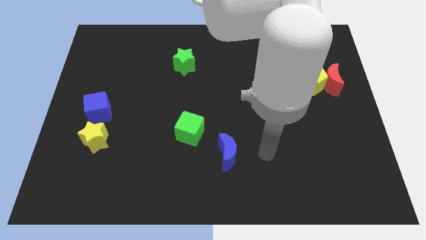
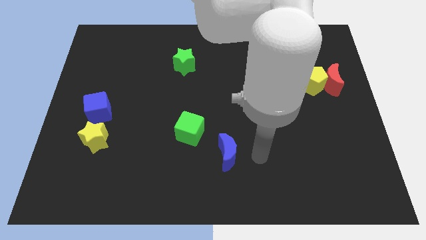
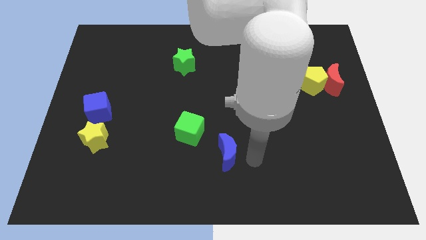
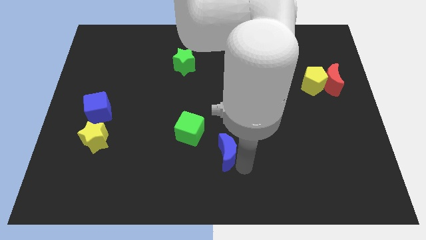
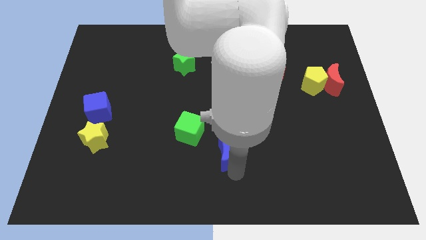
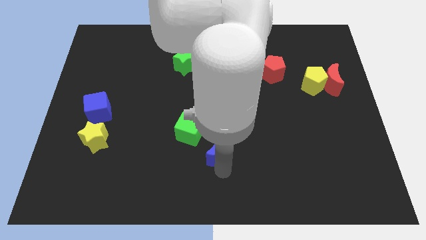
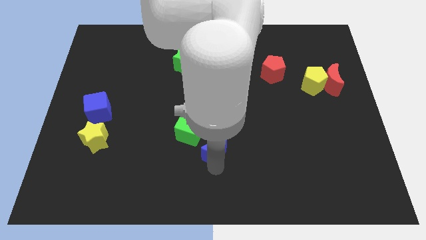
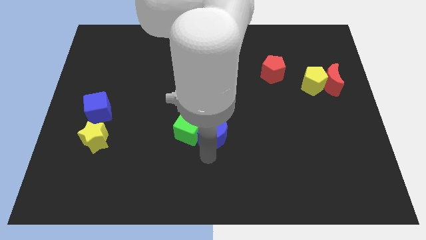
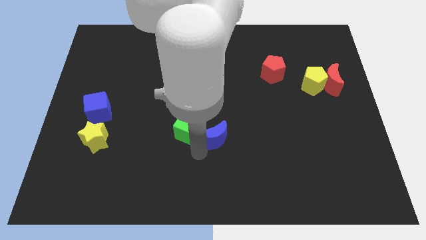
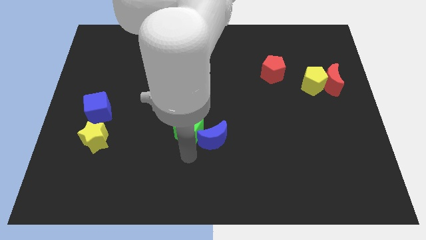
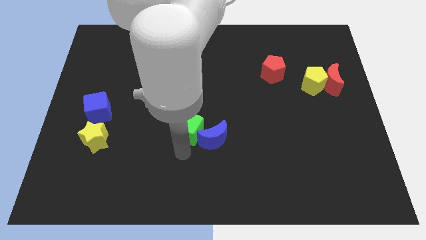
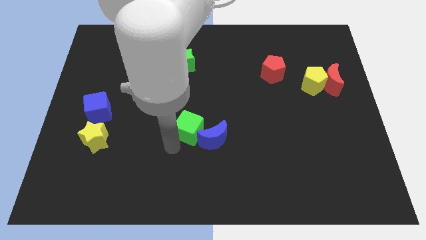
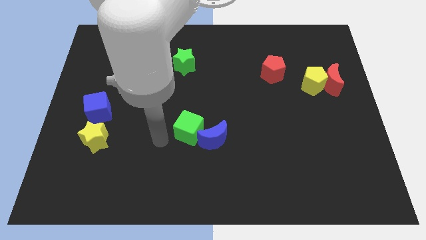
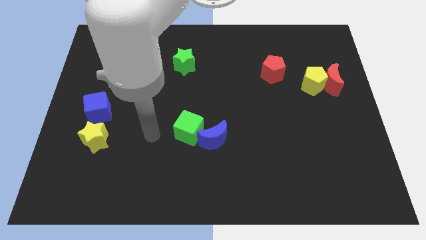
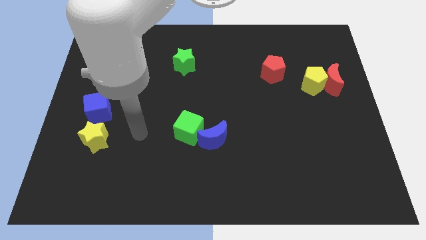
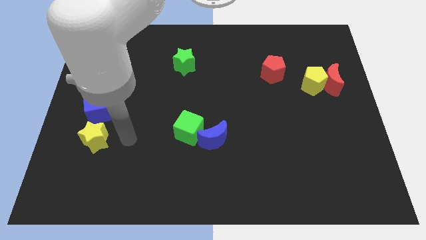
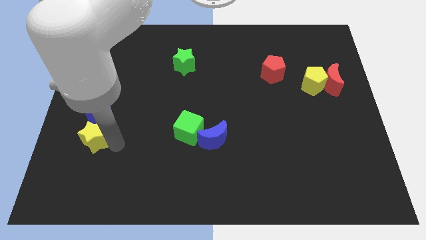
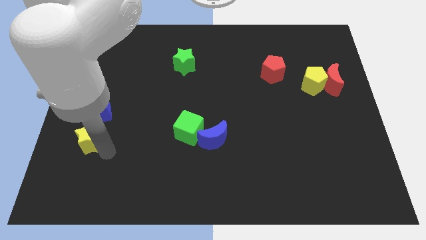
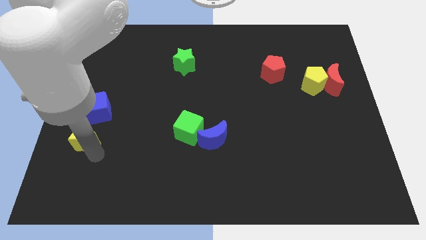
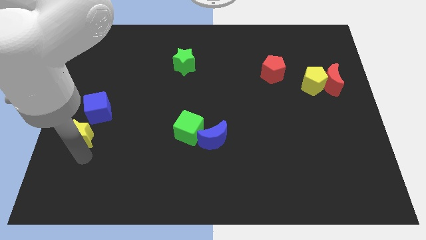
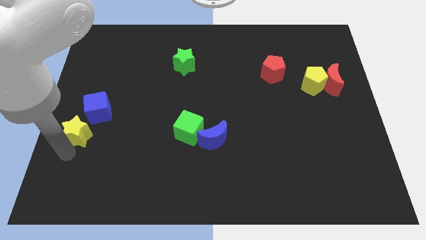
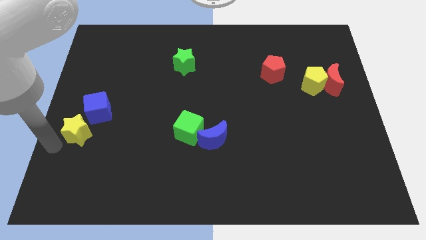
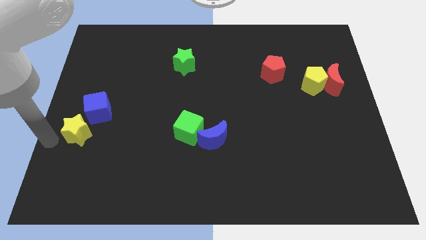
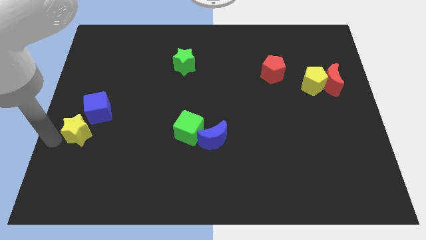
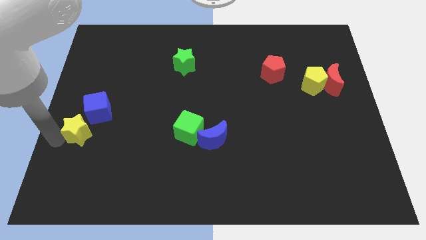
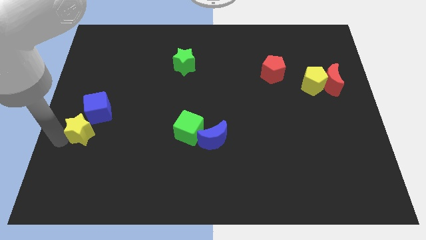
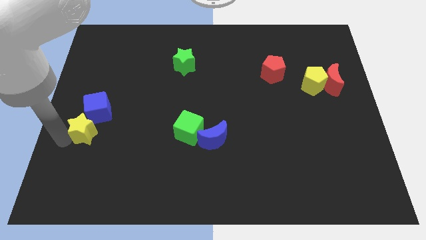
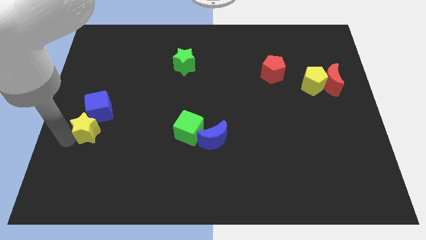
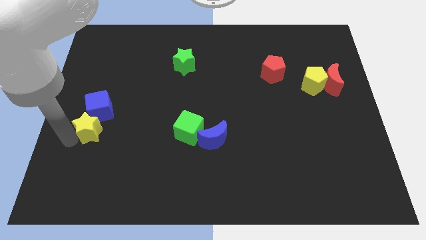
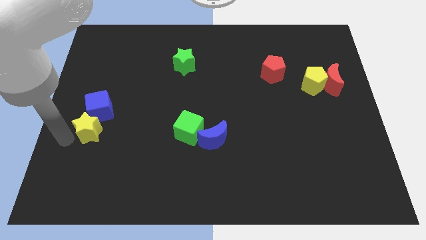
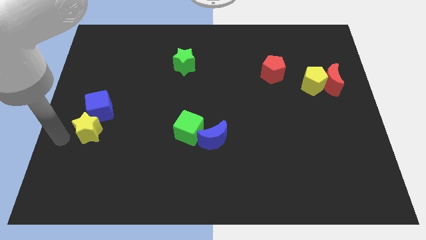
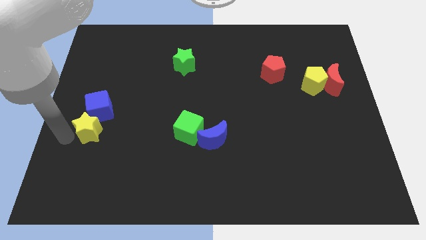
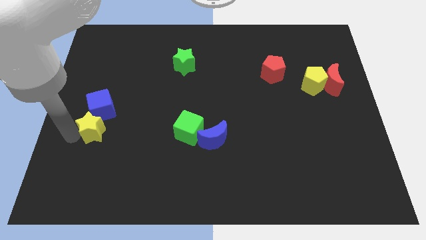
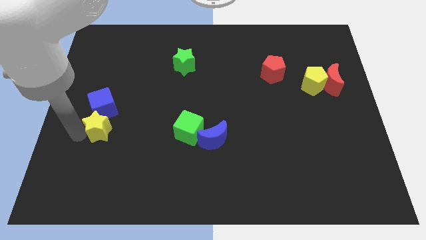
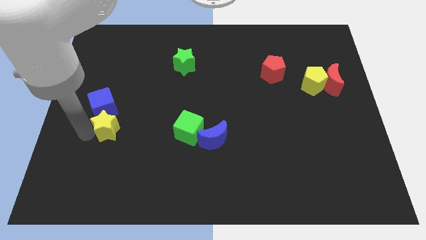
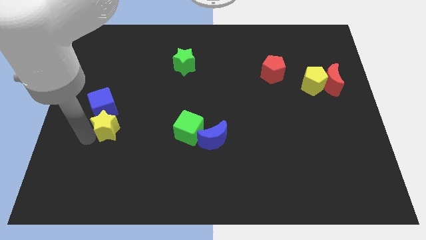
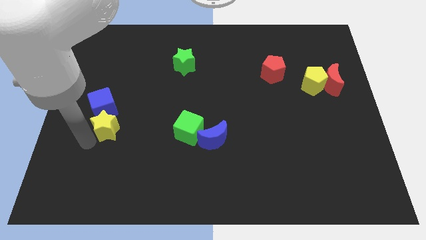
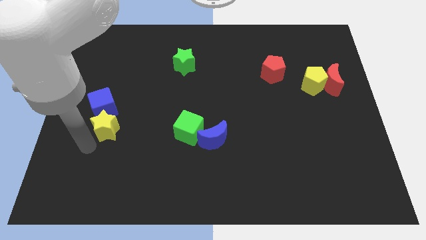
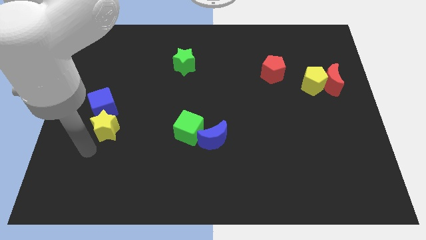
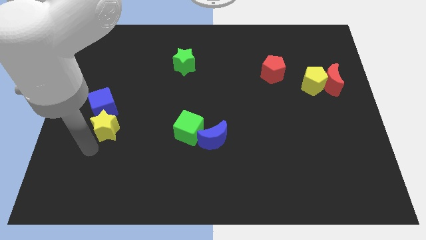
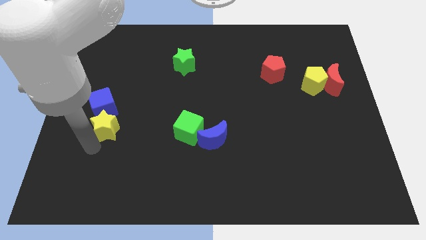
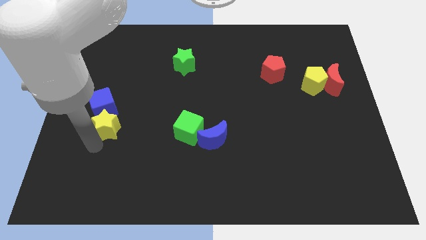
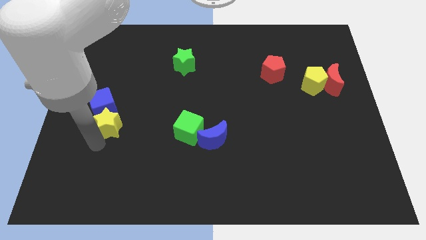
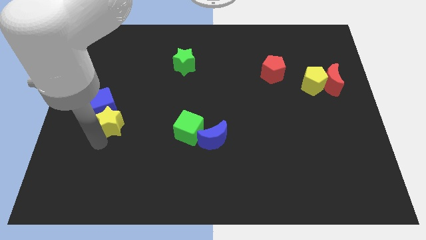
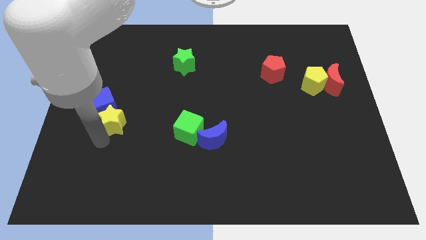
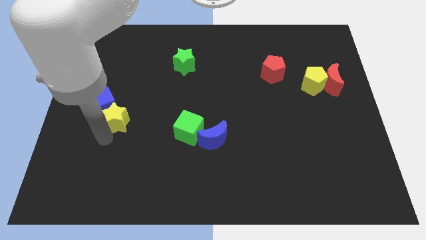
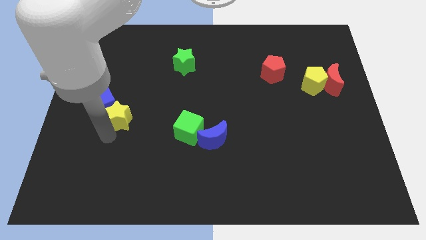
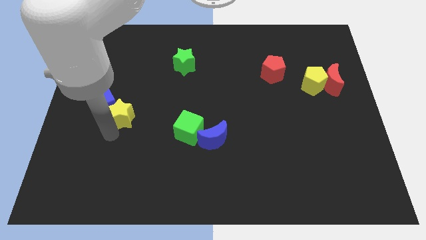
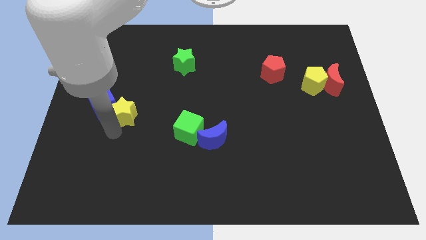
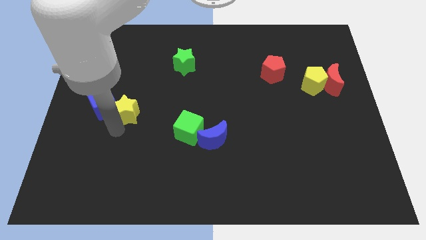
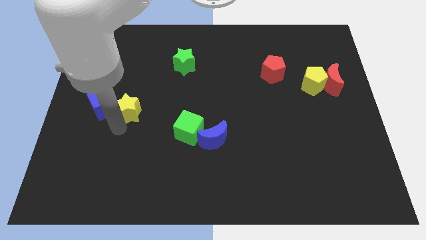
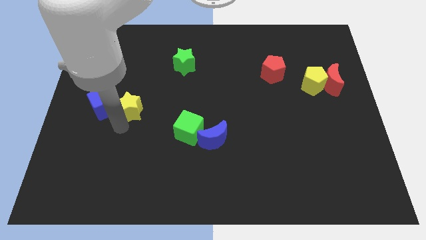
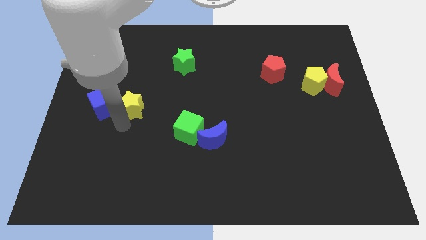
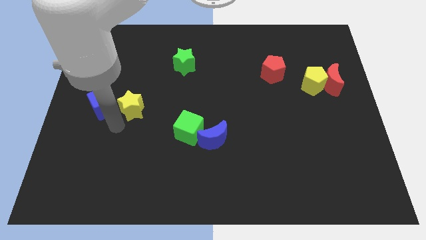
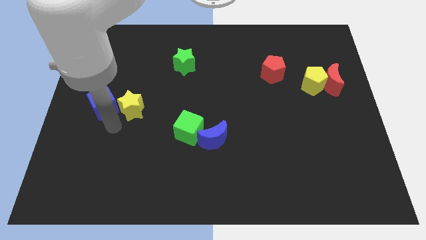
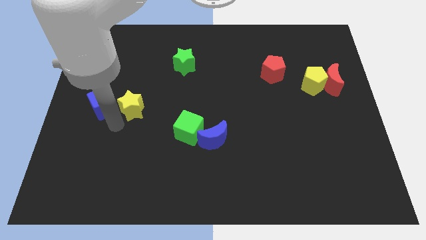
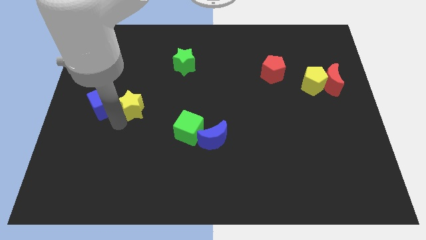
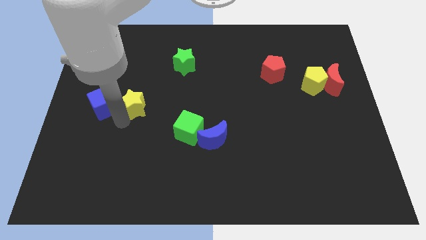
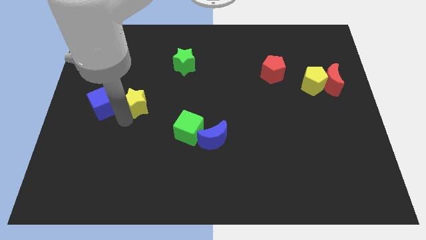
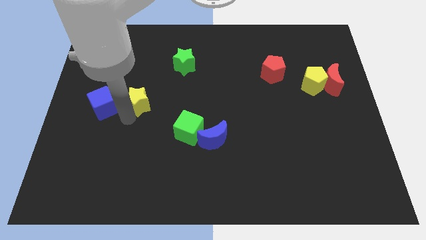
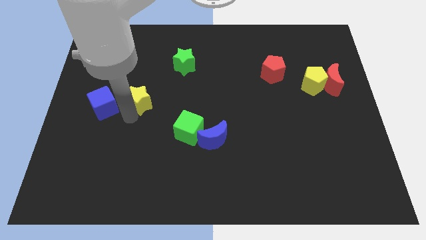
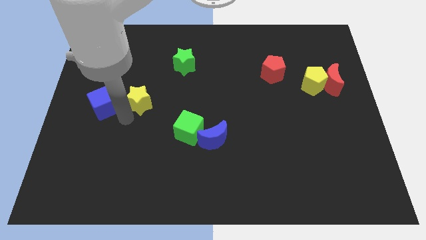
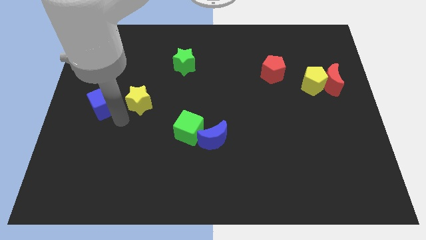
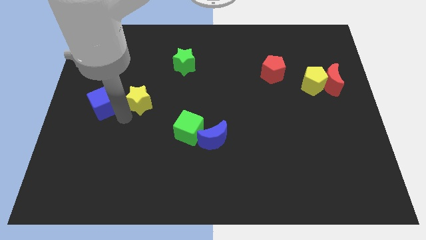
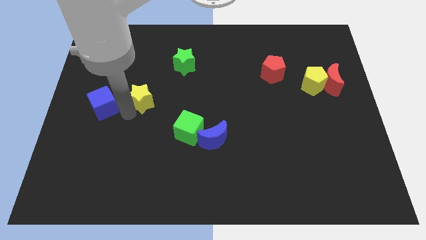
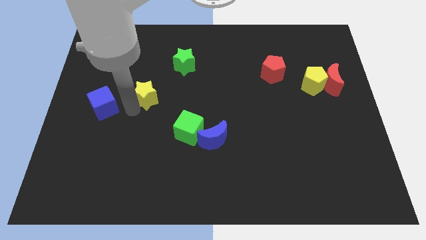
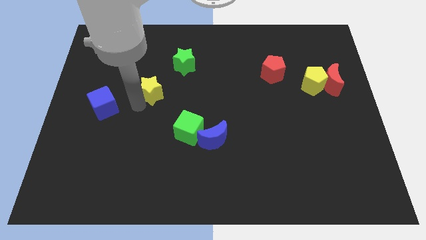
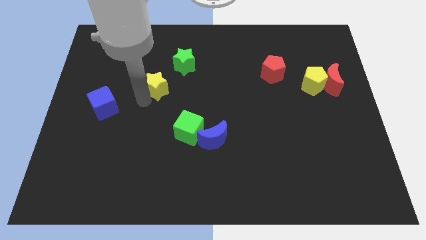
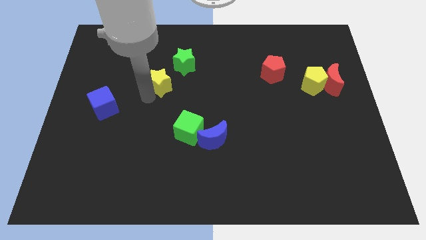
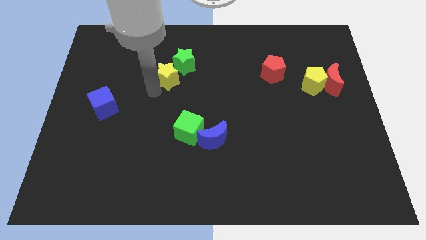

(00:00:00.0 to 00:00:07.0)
move the yellow star close to the green star
